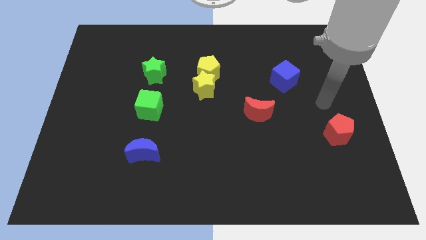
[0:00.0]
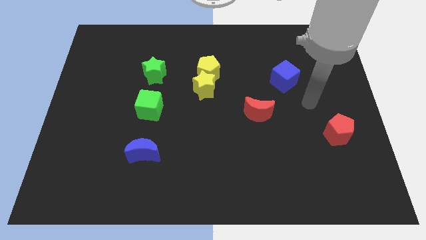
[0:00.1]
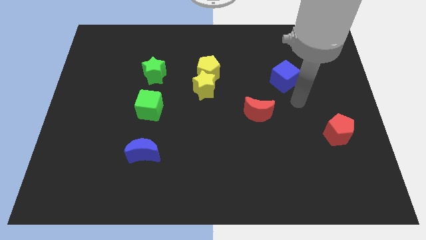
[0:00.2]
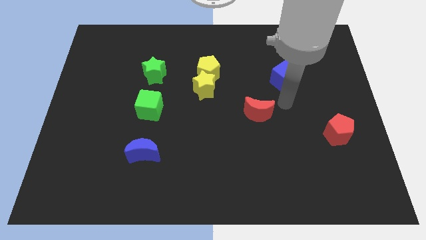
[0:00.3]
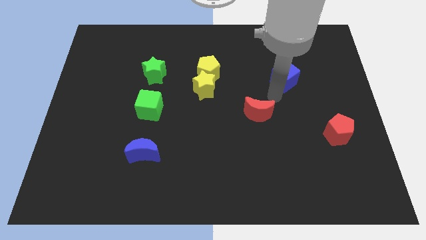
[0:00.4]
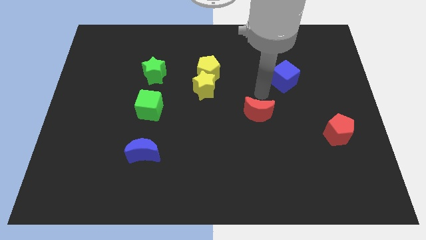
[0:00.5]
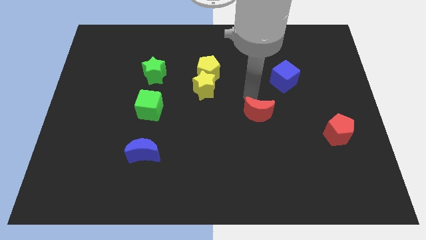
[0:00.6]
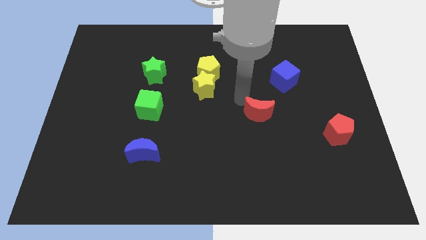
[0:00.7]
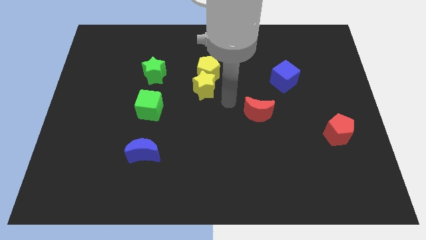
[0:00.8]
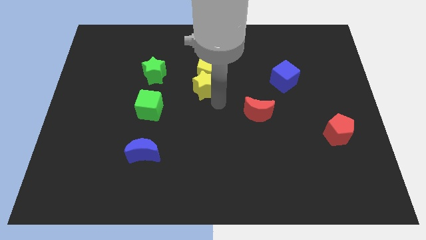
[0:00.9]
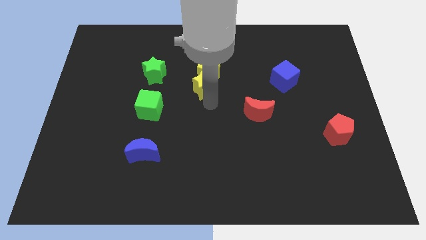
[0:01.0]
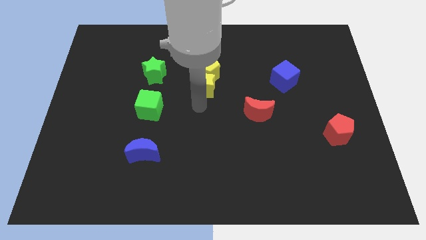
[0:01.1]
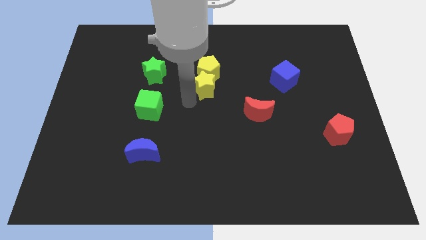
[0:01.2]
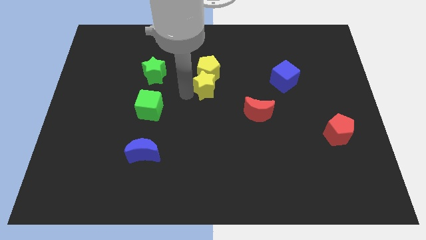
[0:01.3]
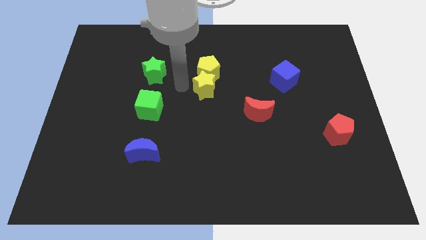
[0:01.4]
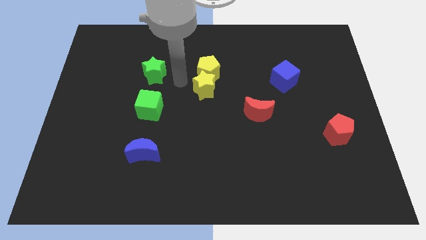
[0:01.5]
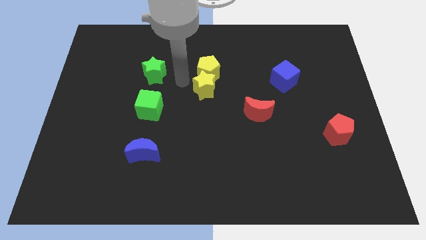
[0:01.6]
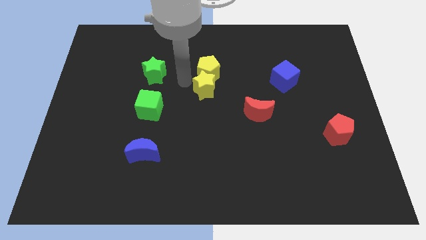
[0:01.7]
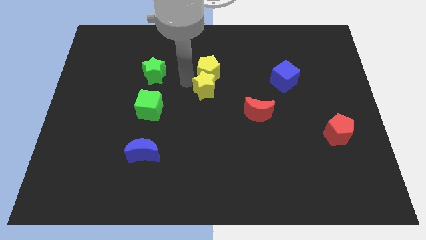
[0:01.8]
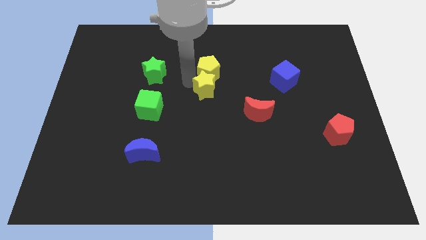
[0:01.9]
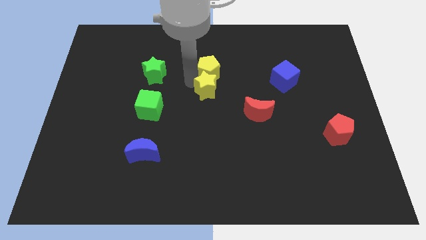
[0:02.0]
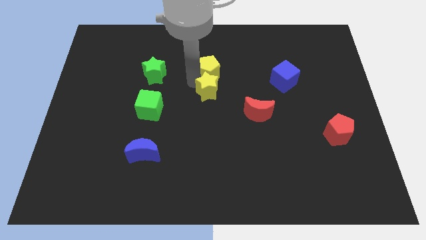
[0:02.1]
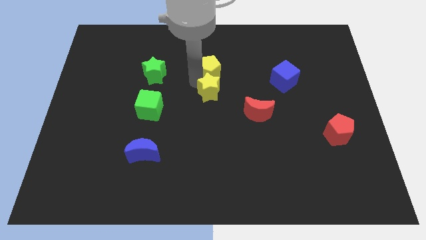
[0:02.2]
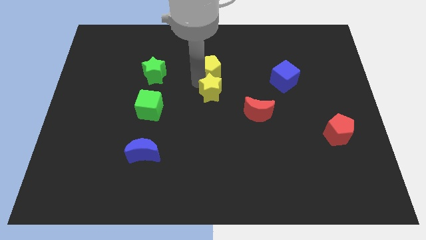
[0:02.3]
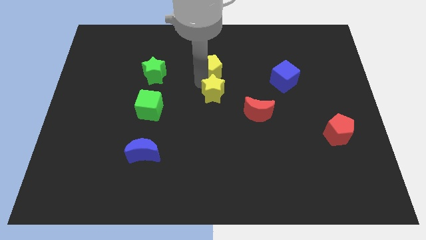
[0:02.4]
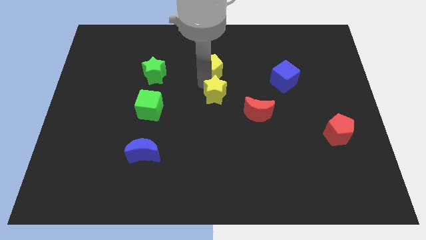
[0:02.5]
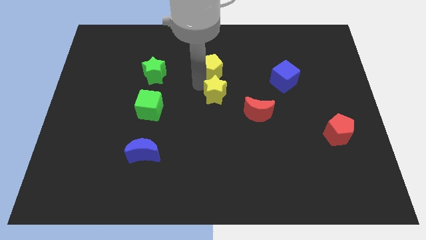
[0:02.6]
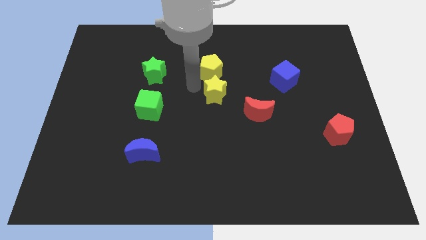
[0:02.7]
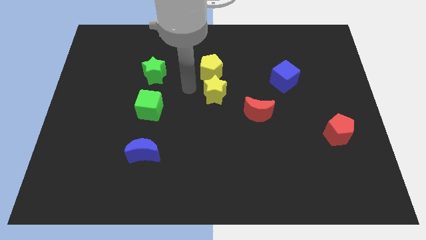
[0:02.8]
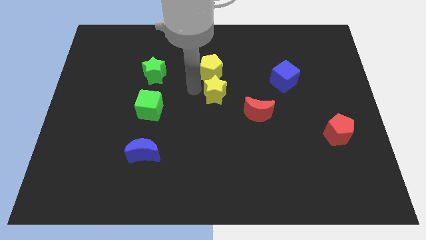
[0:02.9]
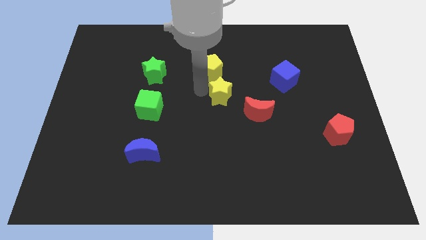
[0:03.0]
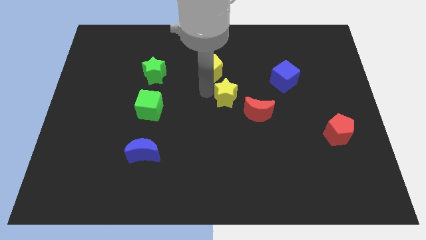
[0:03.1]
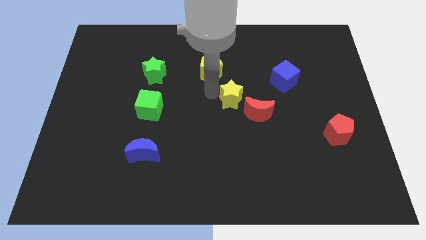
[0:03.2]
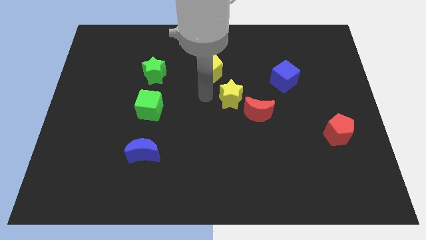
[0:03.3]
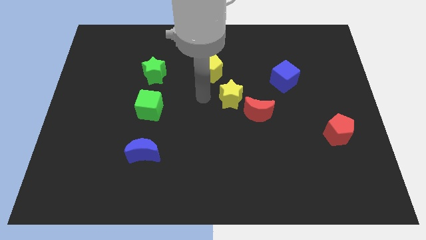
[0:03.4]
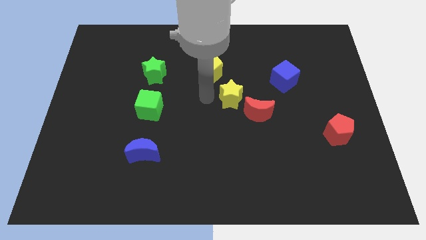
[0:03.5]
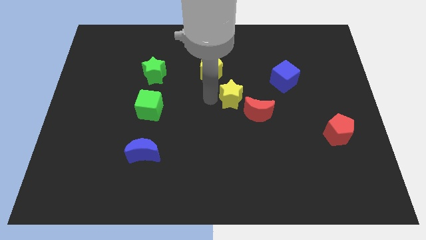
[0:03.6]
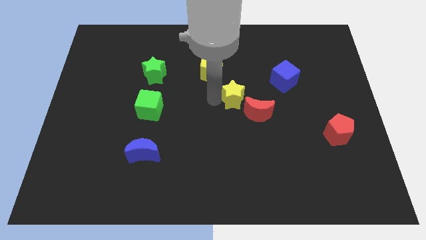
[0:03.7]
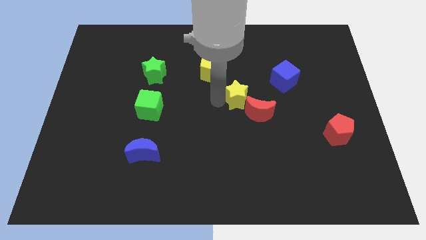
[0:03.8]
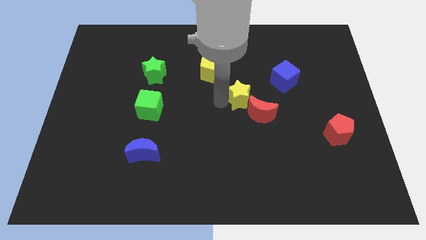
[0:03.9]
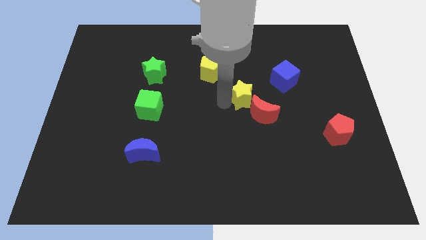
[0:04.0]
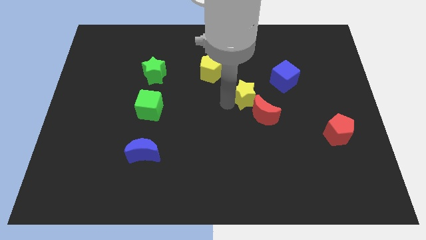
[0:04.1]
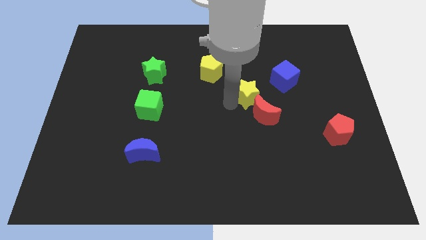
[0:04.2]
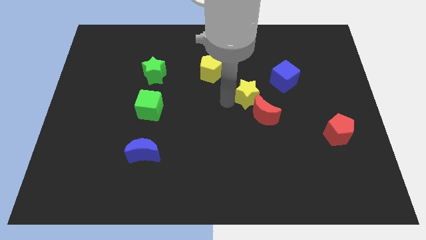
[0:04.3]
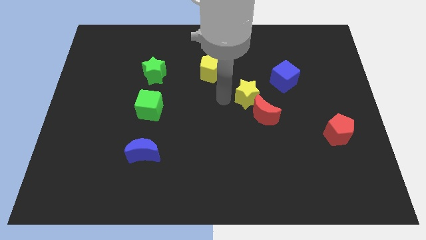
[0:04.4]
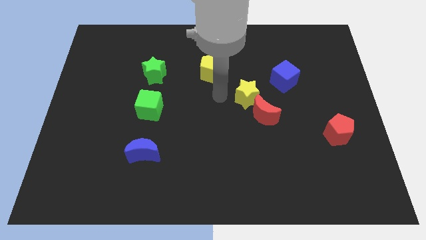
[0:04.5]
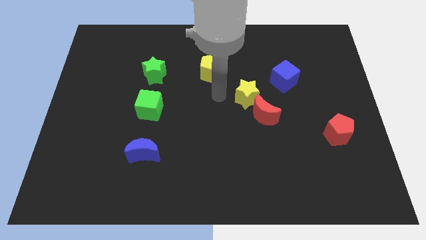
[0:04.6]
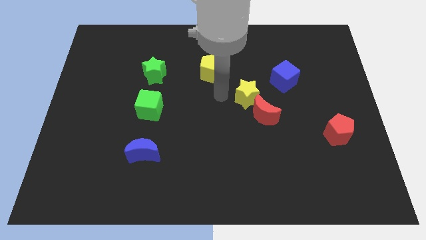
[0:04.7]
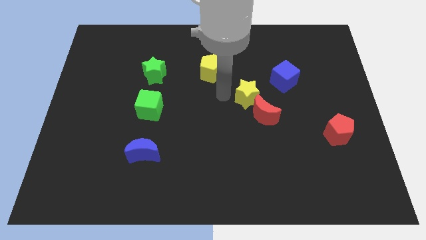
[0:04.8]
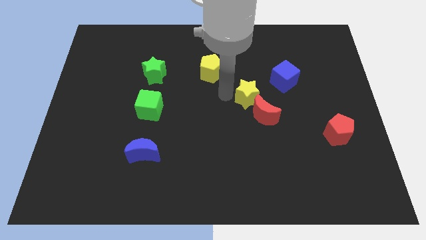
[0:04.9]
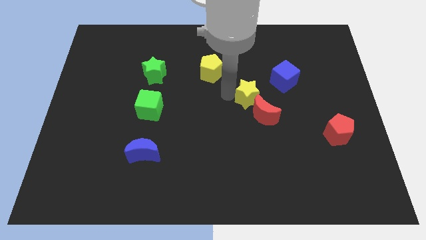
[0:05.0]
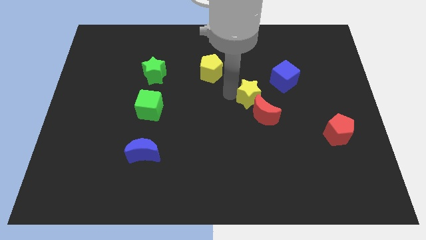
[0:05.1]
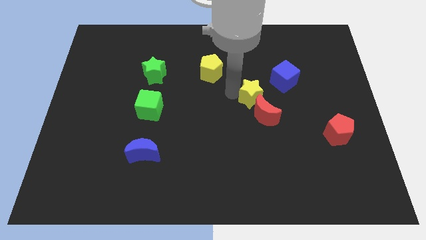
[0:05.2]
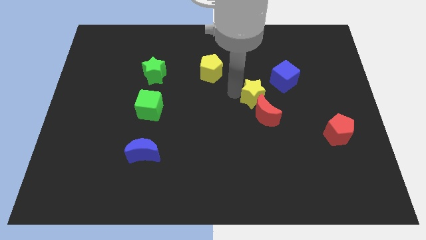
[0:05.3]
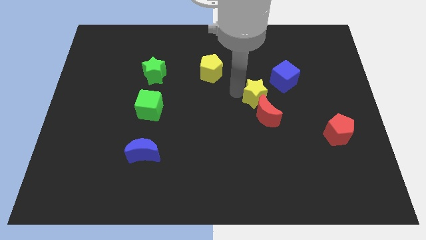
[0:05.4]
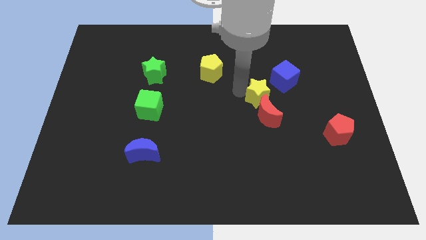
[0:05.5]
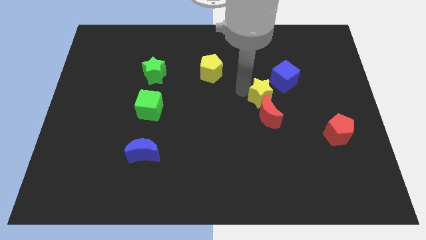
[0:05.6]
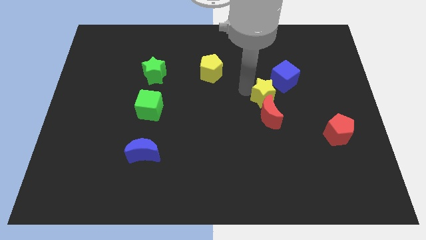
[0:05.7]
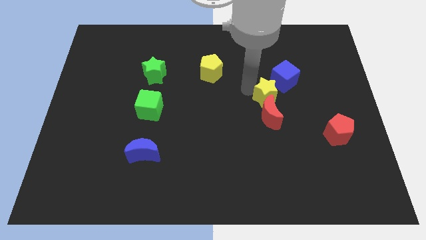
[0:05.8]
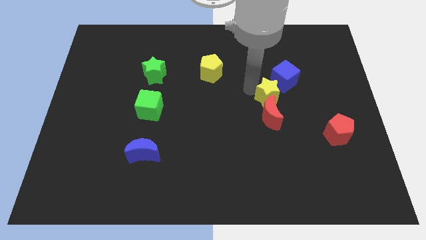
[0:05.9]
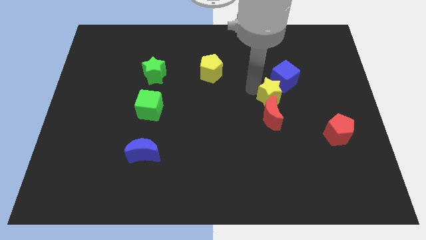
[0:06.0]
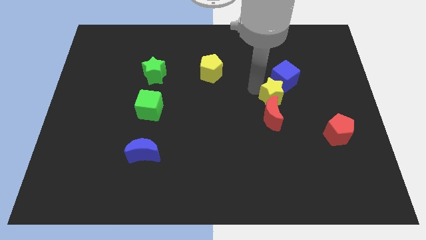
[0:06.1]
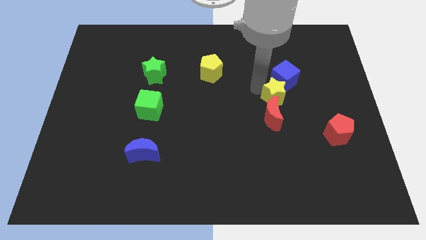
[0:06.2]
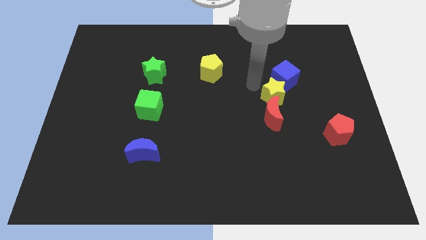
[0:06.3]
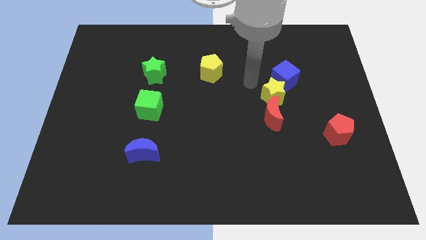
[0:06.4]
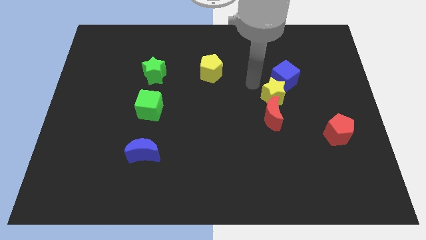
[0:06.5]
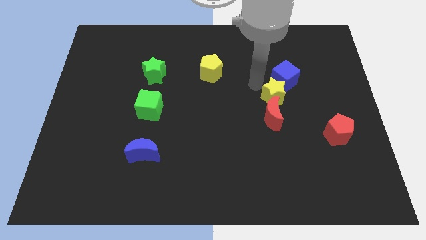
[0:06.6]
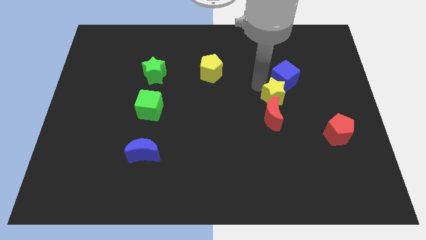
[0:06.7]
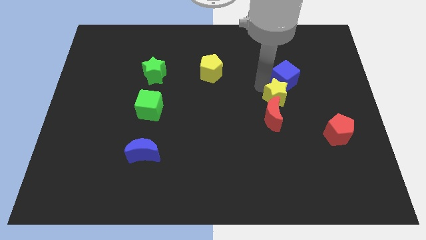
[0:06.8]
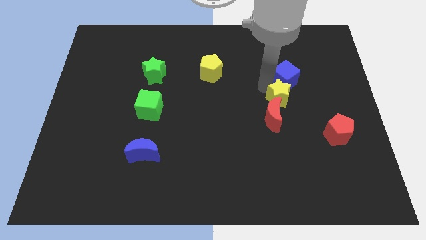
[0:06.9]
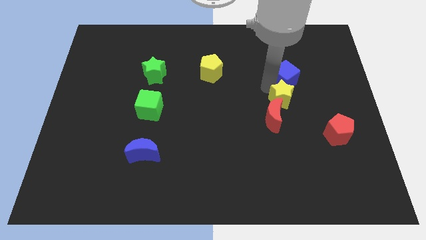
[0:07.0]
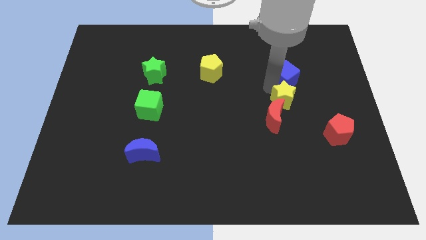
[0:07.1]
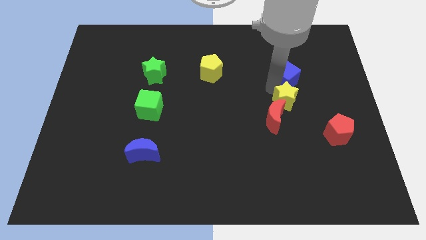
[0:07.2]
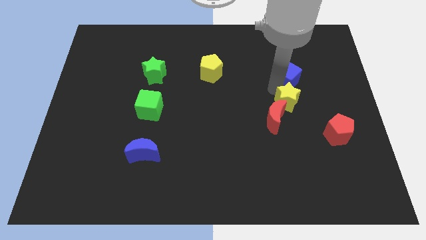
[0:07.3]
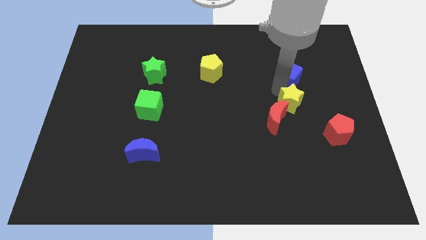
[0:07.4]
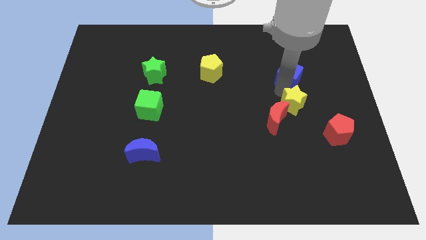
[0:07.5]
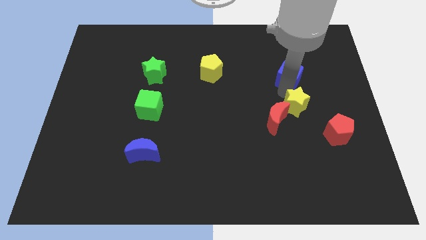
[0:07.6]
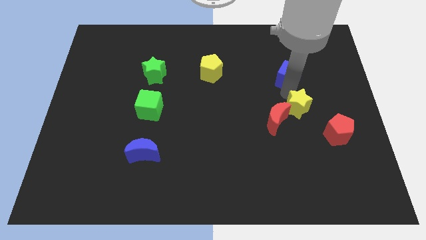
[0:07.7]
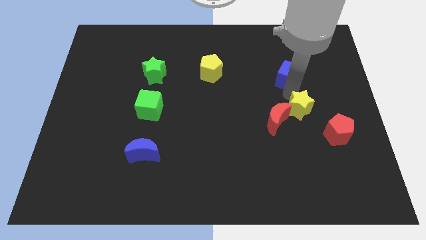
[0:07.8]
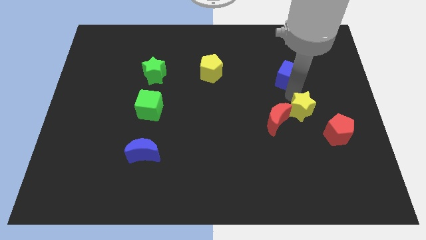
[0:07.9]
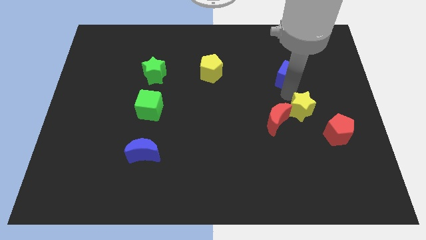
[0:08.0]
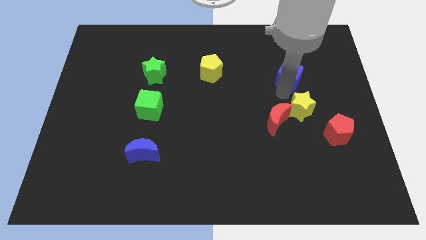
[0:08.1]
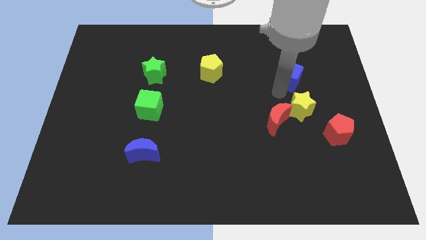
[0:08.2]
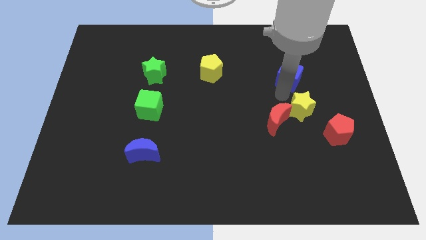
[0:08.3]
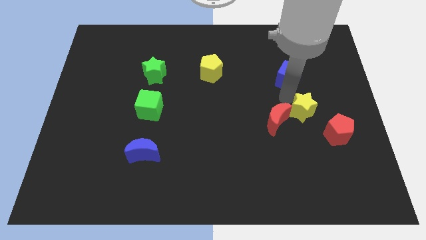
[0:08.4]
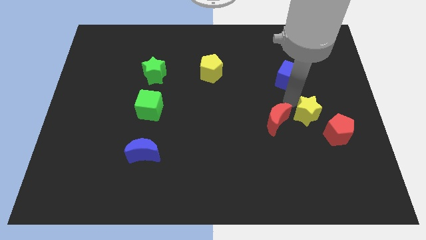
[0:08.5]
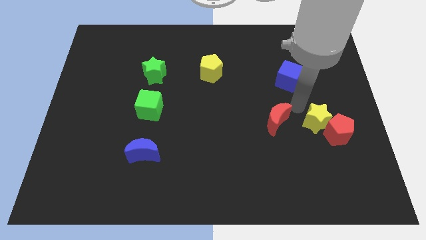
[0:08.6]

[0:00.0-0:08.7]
push the yellow star towards the red pentagon
